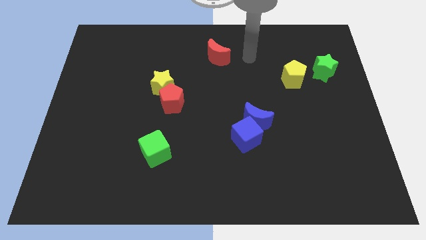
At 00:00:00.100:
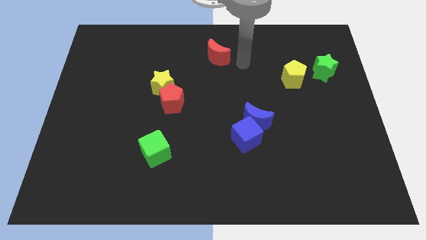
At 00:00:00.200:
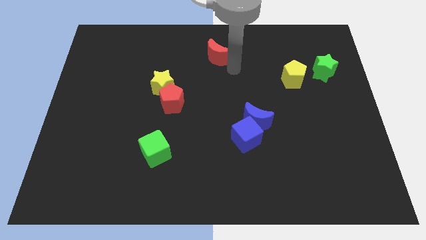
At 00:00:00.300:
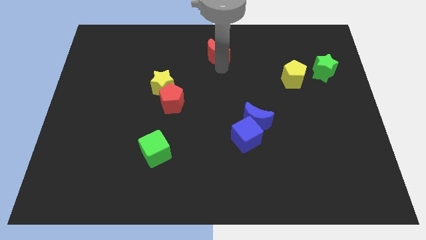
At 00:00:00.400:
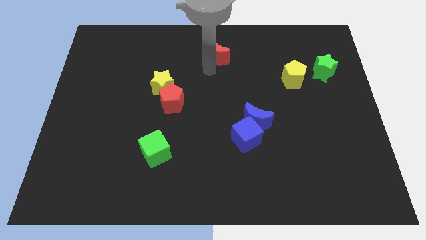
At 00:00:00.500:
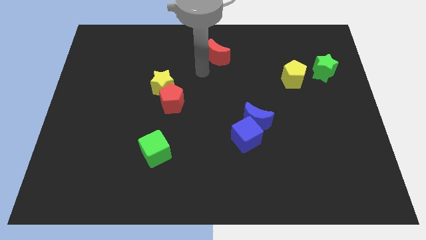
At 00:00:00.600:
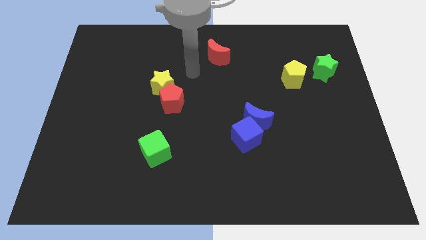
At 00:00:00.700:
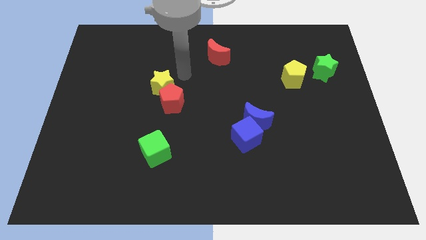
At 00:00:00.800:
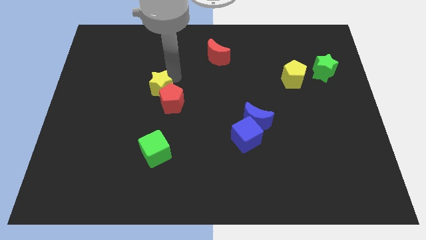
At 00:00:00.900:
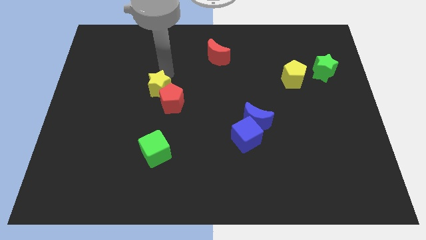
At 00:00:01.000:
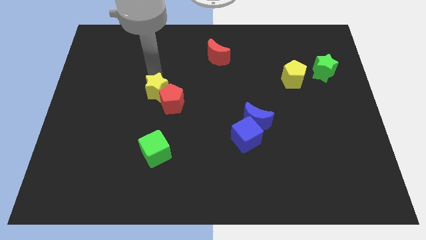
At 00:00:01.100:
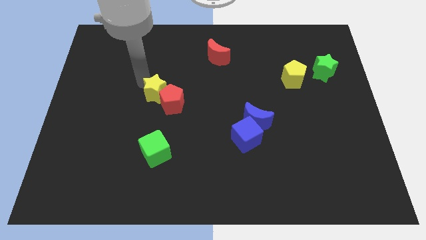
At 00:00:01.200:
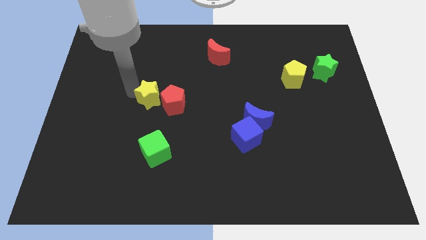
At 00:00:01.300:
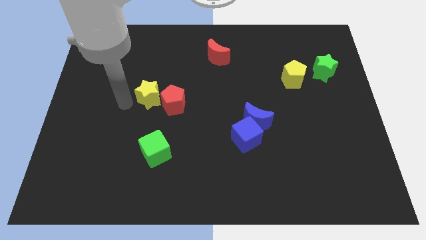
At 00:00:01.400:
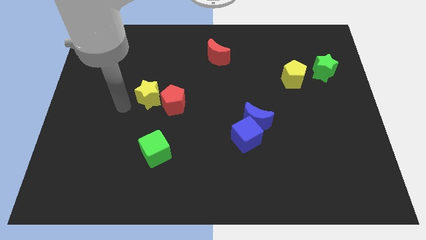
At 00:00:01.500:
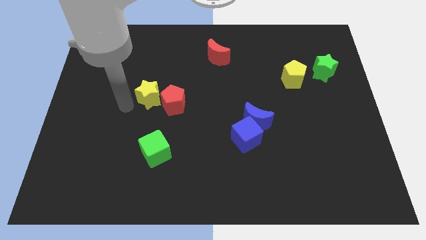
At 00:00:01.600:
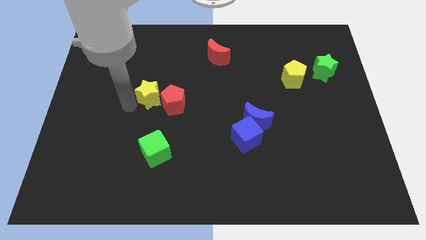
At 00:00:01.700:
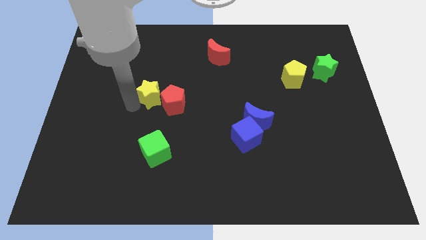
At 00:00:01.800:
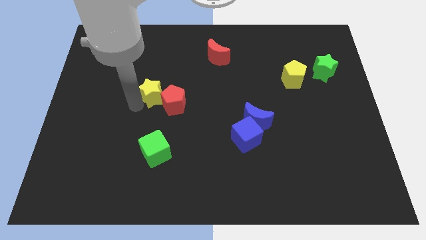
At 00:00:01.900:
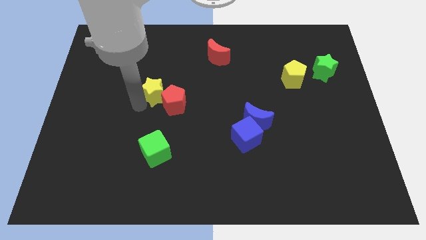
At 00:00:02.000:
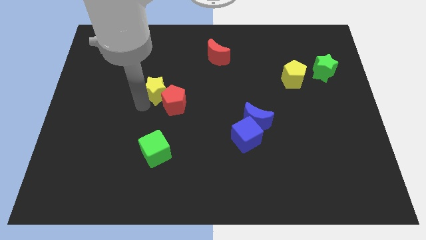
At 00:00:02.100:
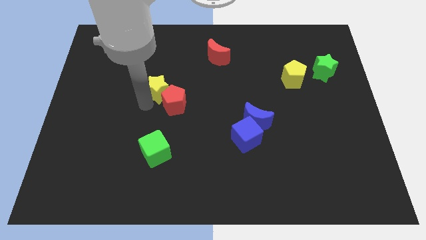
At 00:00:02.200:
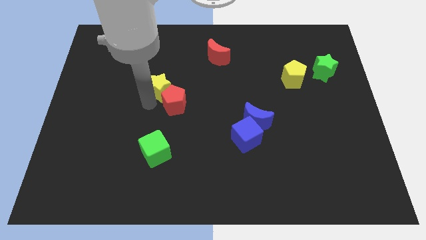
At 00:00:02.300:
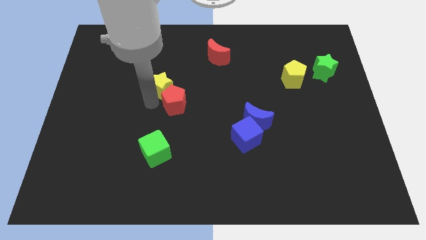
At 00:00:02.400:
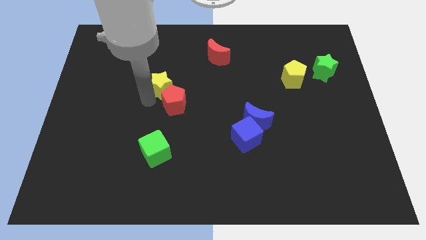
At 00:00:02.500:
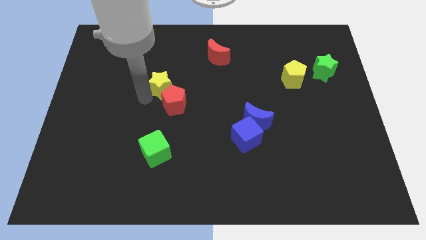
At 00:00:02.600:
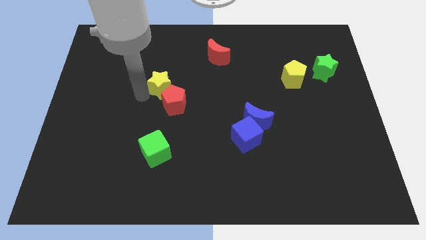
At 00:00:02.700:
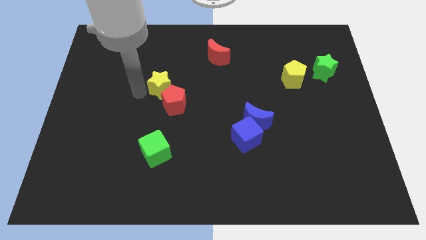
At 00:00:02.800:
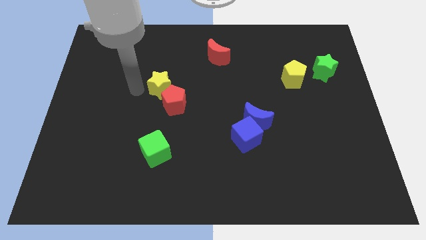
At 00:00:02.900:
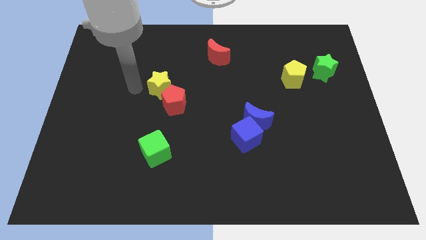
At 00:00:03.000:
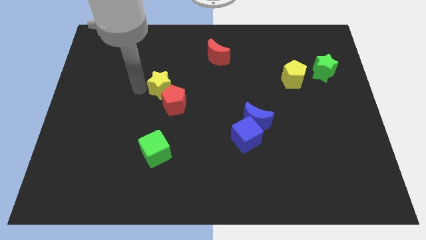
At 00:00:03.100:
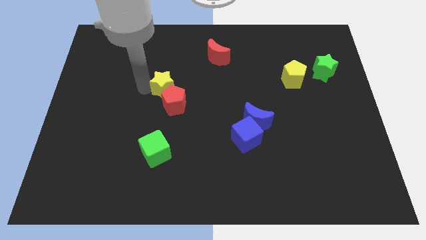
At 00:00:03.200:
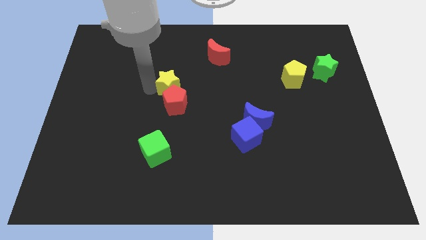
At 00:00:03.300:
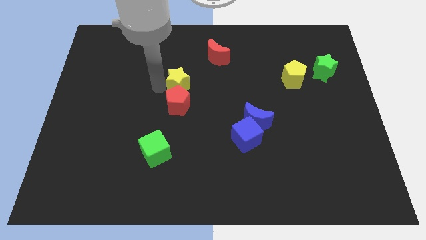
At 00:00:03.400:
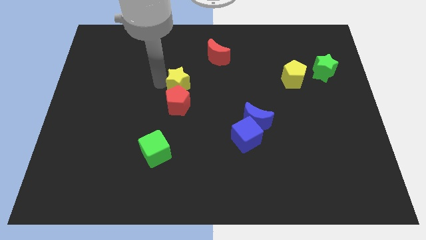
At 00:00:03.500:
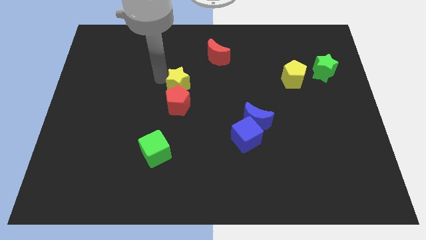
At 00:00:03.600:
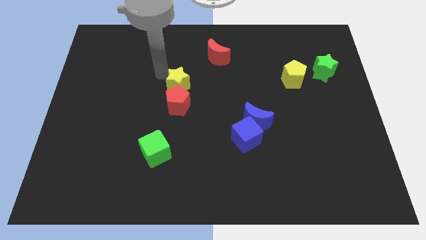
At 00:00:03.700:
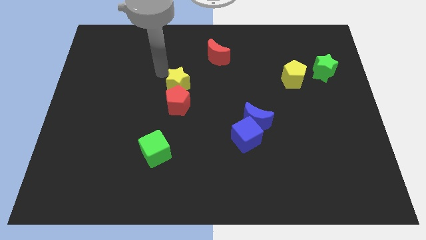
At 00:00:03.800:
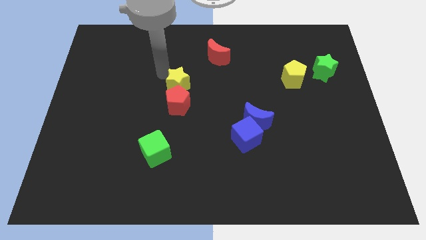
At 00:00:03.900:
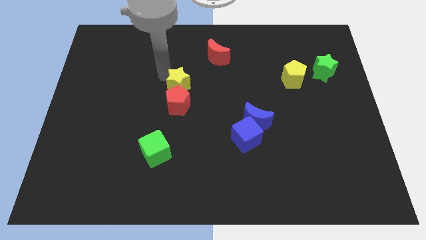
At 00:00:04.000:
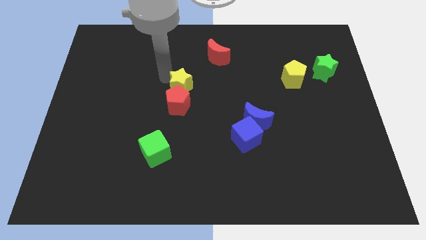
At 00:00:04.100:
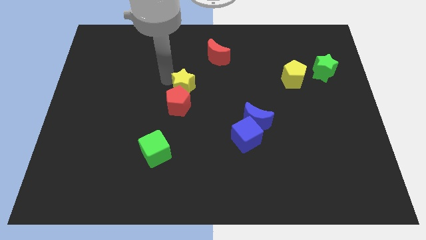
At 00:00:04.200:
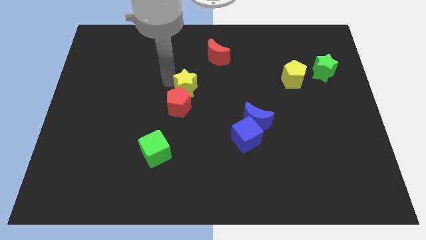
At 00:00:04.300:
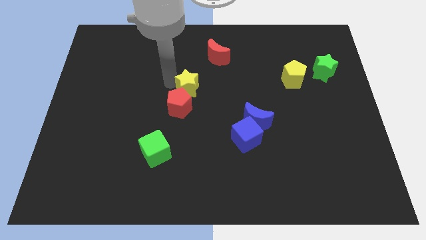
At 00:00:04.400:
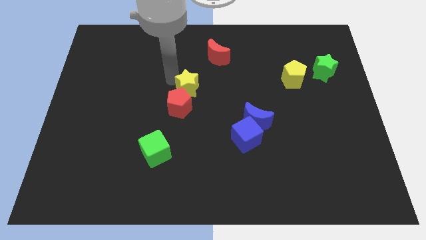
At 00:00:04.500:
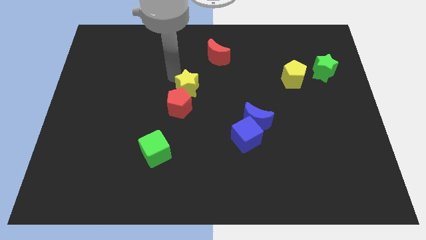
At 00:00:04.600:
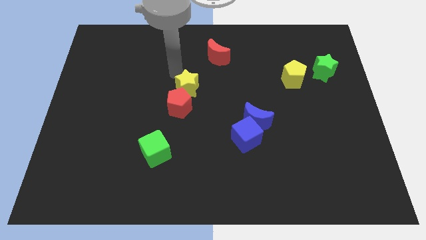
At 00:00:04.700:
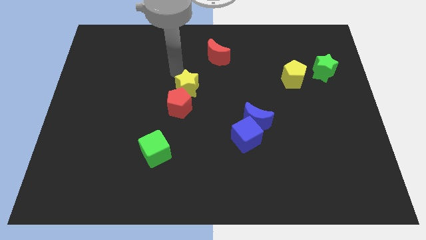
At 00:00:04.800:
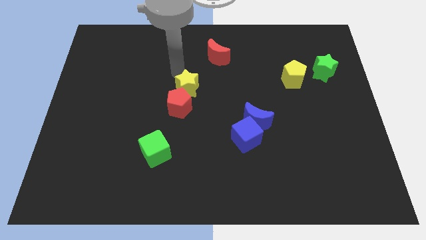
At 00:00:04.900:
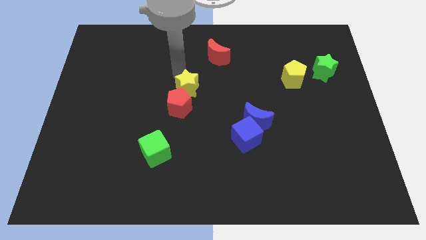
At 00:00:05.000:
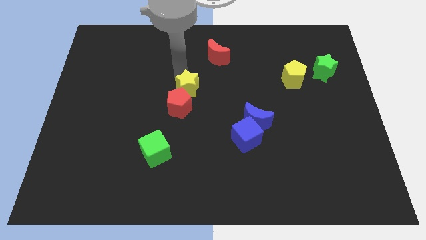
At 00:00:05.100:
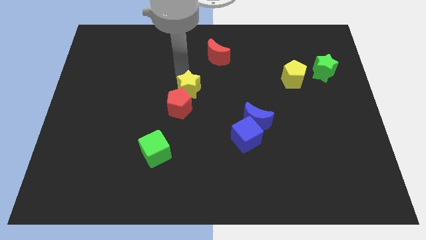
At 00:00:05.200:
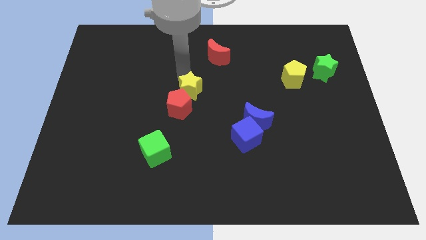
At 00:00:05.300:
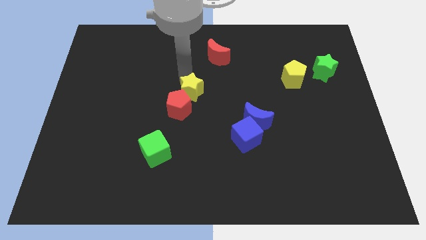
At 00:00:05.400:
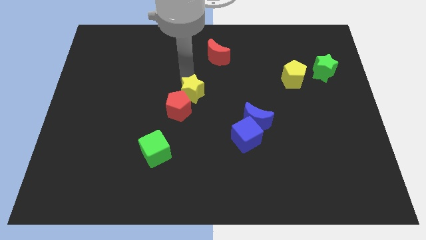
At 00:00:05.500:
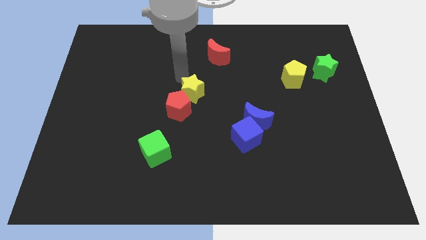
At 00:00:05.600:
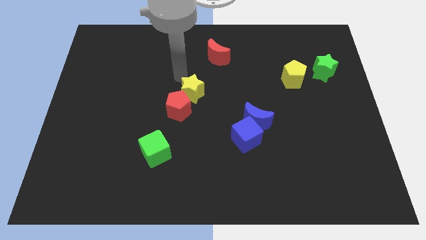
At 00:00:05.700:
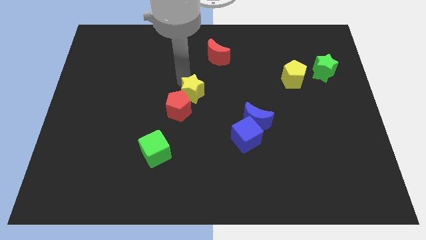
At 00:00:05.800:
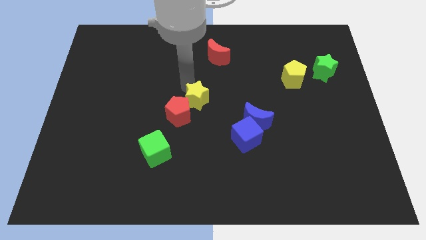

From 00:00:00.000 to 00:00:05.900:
slightly push the yellow star downwards and then to the right

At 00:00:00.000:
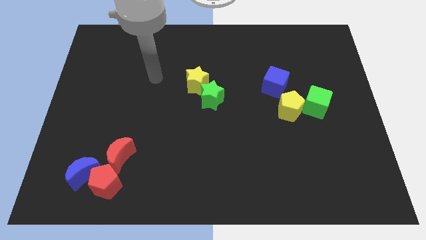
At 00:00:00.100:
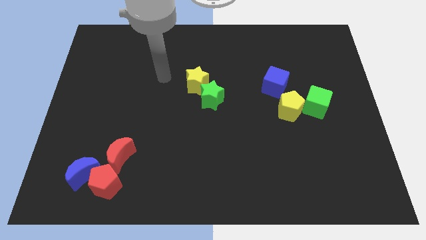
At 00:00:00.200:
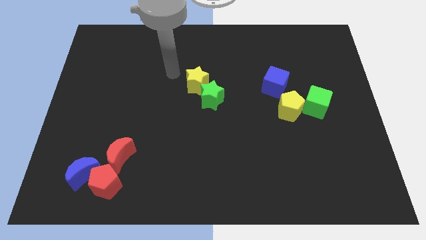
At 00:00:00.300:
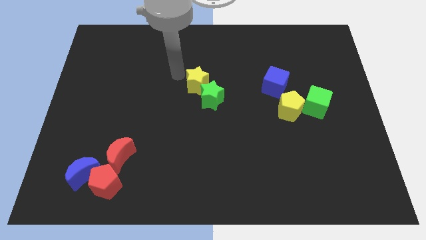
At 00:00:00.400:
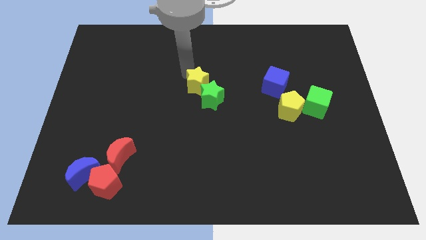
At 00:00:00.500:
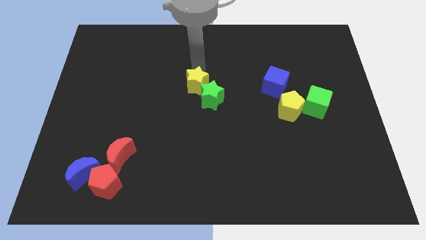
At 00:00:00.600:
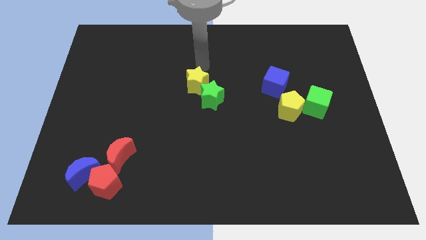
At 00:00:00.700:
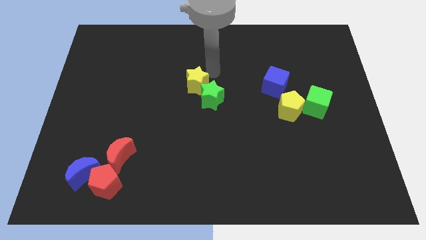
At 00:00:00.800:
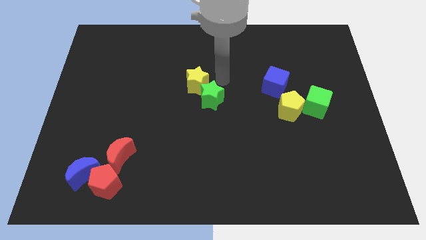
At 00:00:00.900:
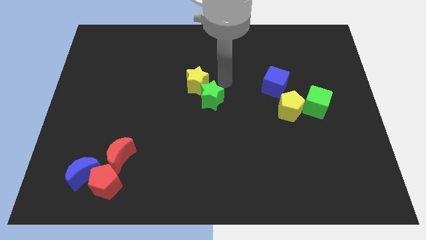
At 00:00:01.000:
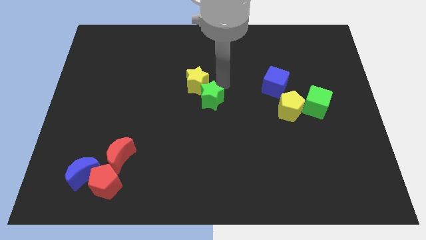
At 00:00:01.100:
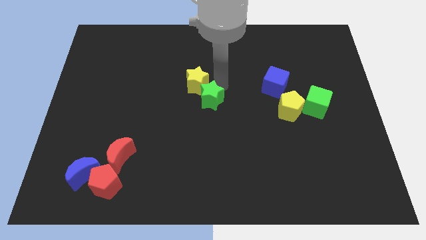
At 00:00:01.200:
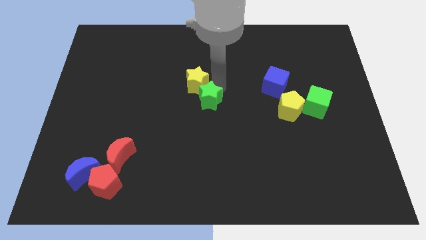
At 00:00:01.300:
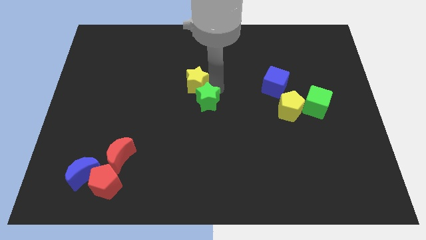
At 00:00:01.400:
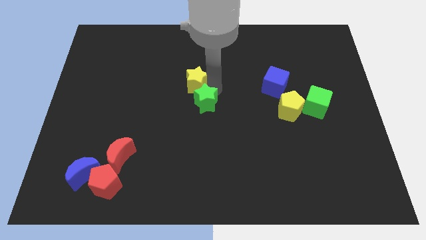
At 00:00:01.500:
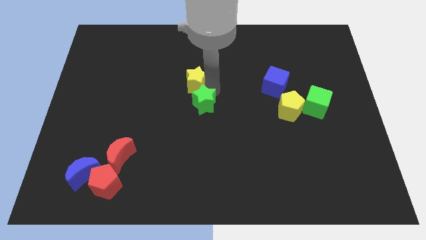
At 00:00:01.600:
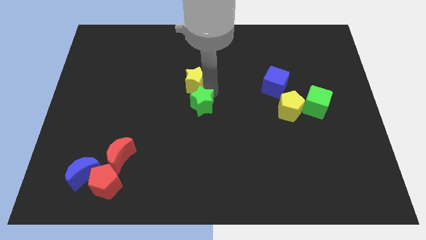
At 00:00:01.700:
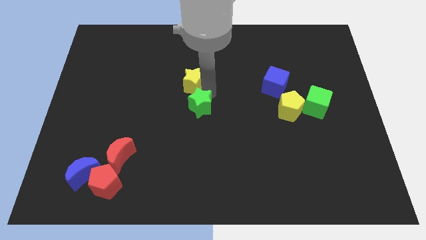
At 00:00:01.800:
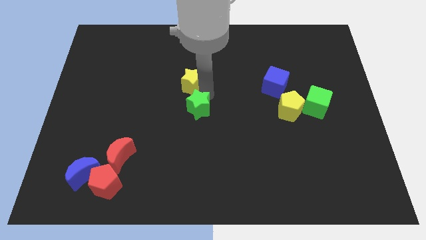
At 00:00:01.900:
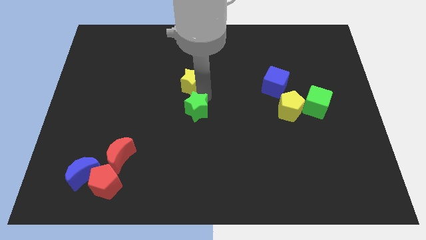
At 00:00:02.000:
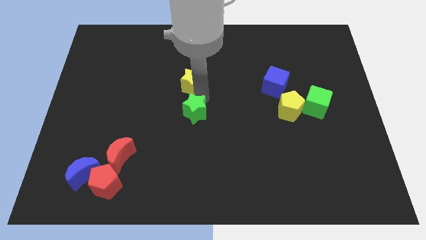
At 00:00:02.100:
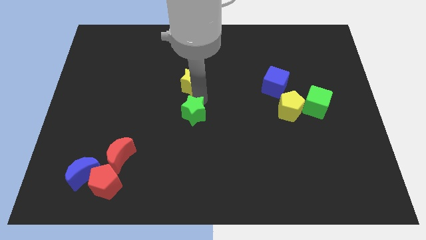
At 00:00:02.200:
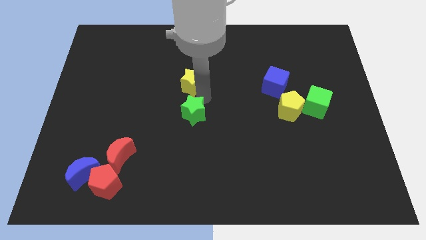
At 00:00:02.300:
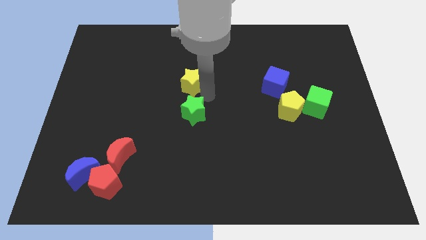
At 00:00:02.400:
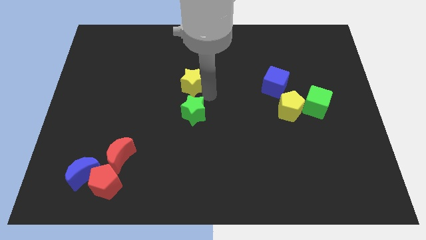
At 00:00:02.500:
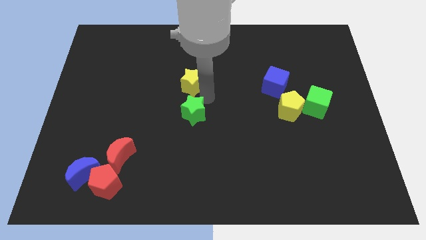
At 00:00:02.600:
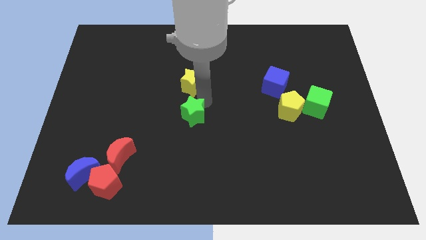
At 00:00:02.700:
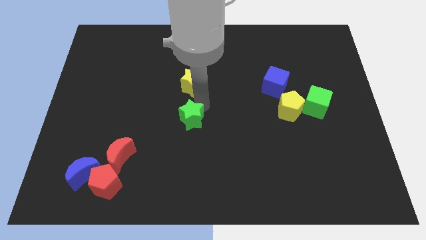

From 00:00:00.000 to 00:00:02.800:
push the green star down and then left somewhat
